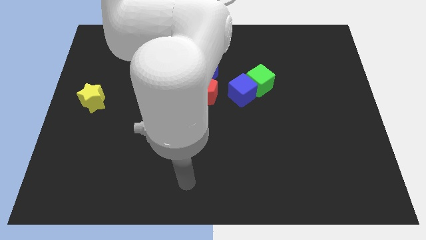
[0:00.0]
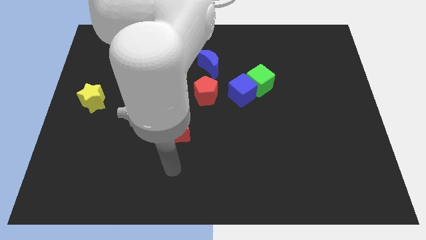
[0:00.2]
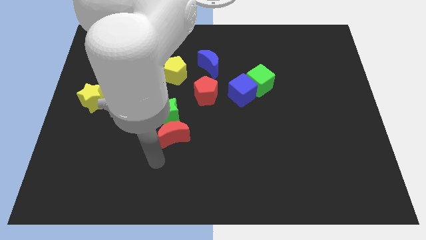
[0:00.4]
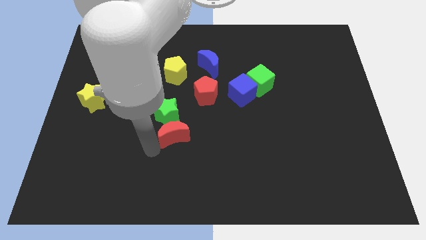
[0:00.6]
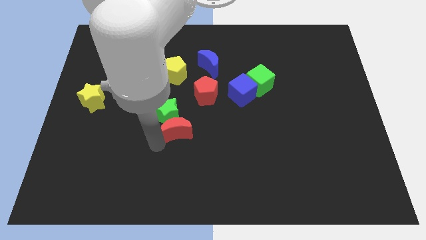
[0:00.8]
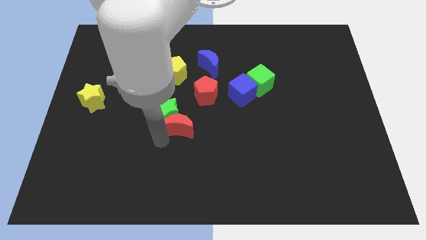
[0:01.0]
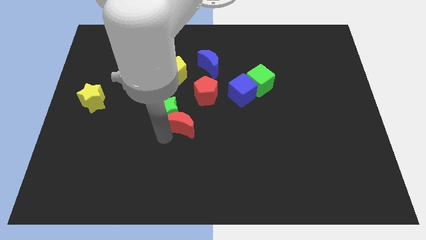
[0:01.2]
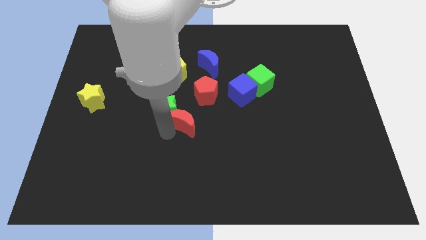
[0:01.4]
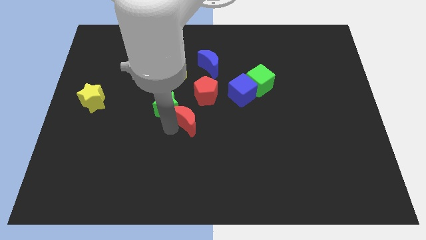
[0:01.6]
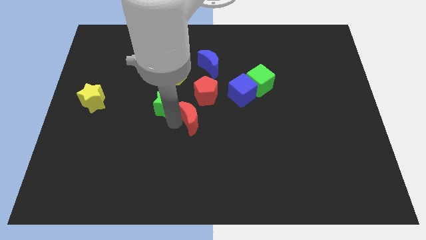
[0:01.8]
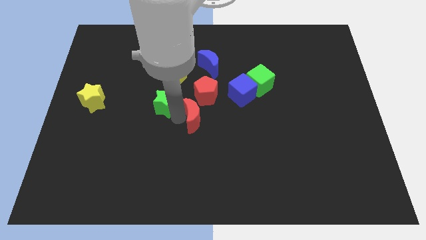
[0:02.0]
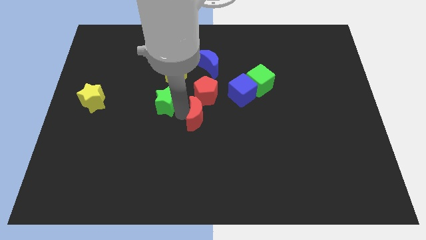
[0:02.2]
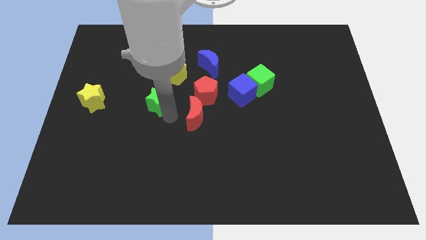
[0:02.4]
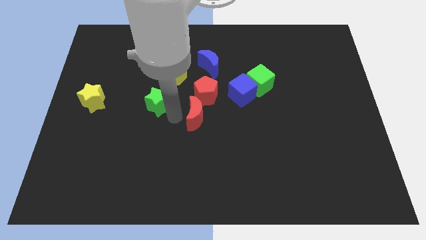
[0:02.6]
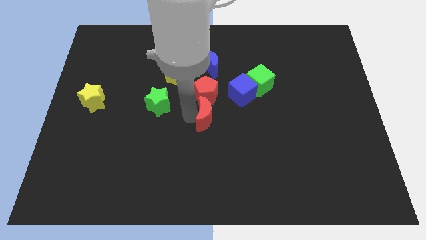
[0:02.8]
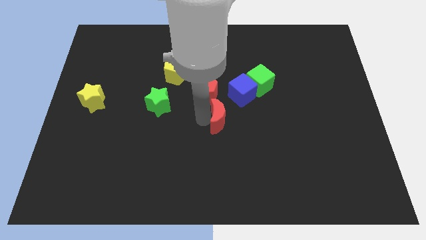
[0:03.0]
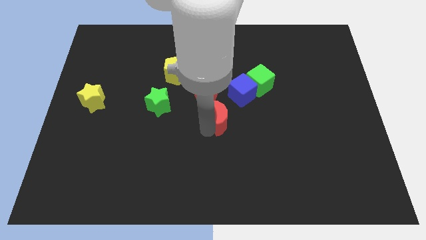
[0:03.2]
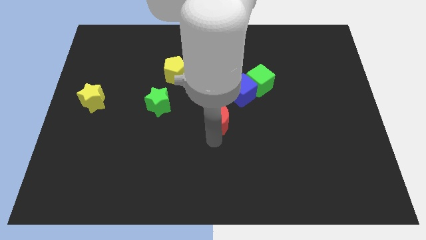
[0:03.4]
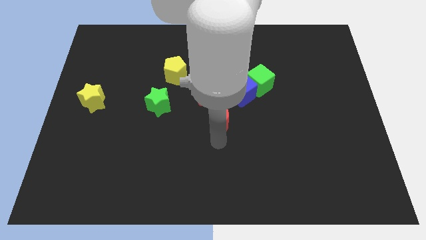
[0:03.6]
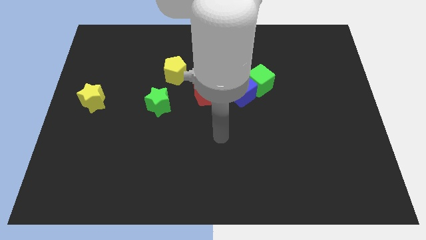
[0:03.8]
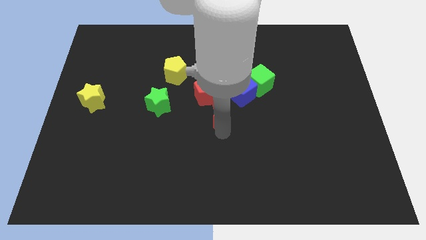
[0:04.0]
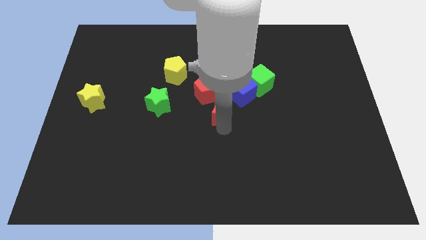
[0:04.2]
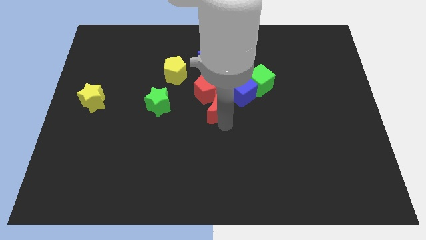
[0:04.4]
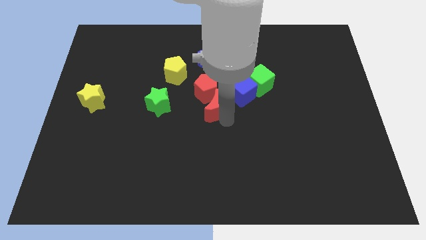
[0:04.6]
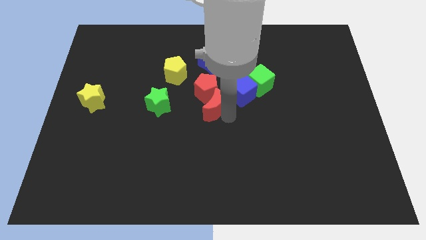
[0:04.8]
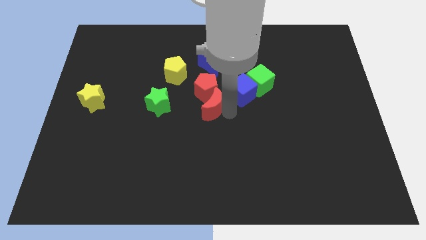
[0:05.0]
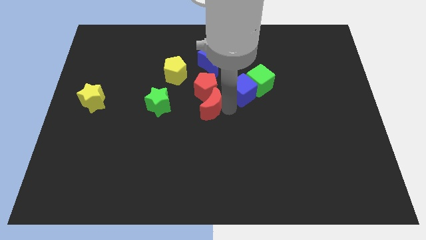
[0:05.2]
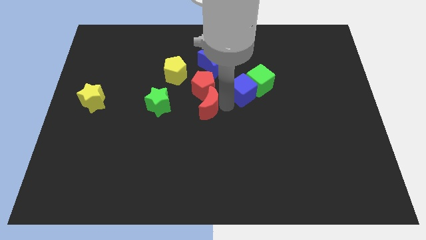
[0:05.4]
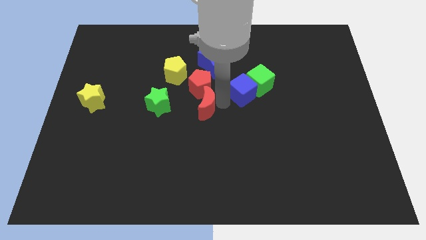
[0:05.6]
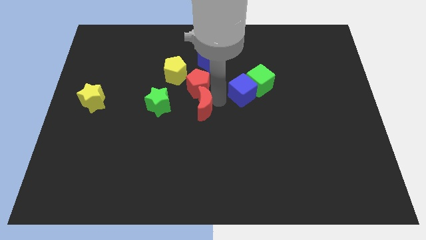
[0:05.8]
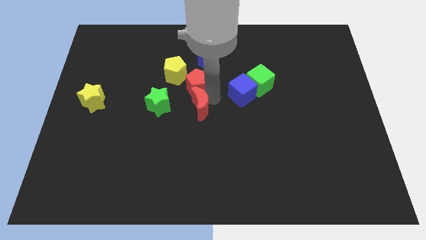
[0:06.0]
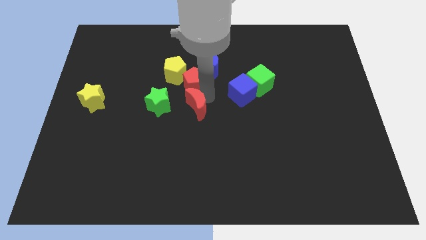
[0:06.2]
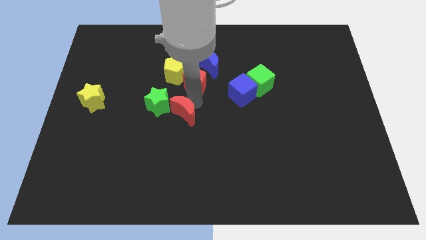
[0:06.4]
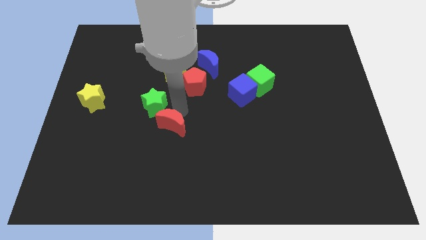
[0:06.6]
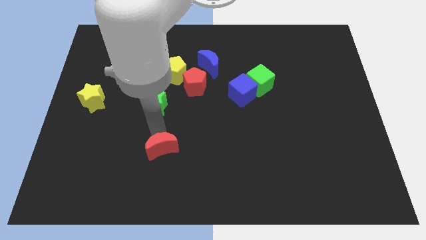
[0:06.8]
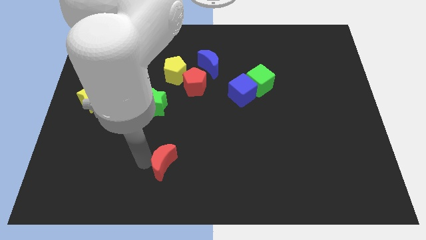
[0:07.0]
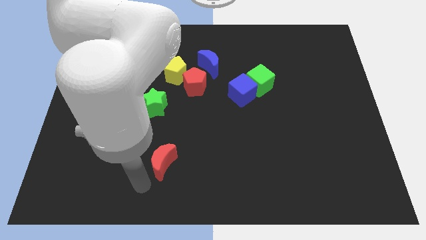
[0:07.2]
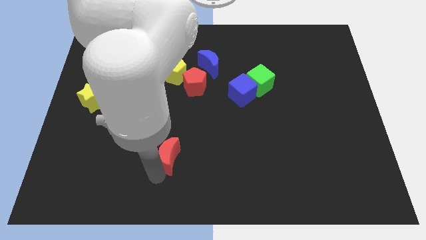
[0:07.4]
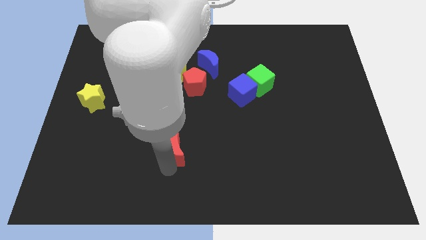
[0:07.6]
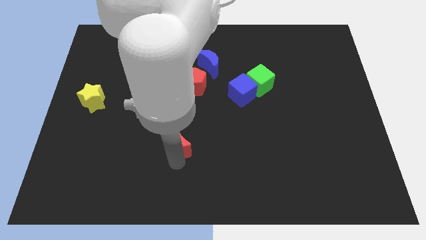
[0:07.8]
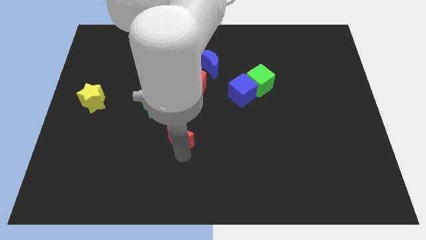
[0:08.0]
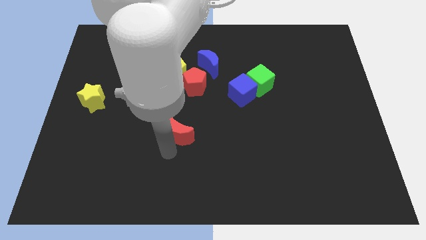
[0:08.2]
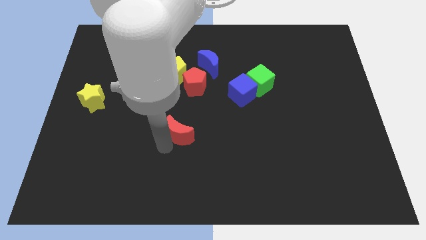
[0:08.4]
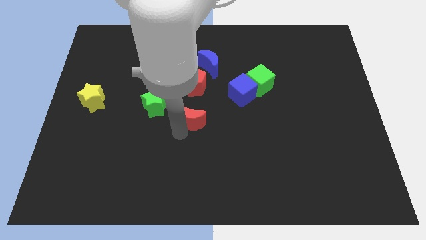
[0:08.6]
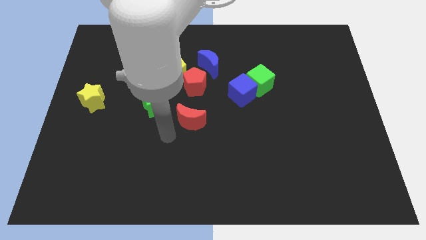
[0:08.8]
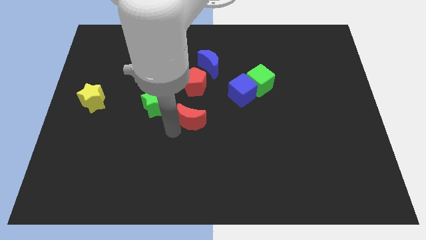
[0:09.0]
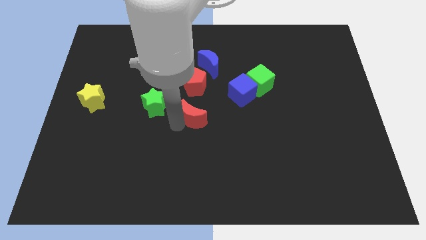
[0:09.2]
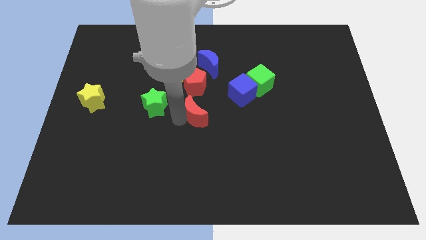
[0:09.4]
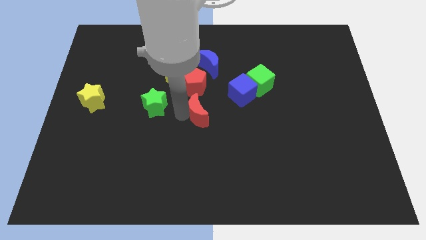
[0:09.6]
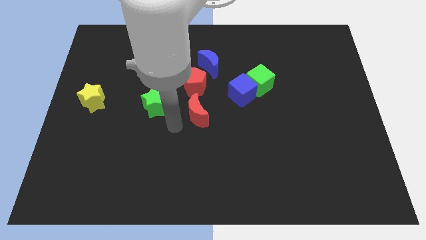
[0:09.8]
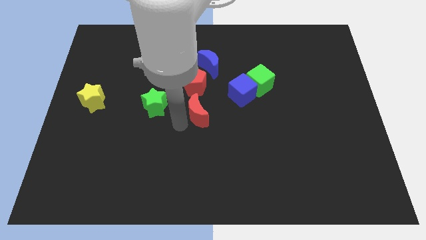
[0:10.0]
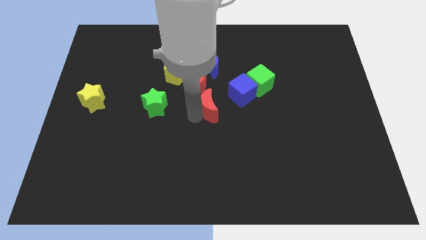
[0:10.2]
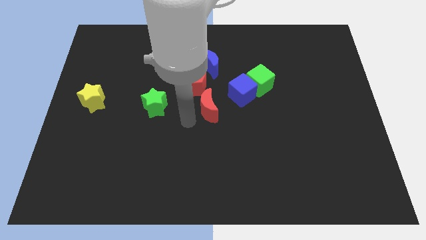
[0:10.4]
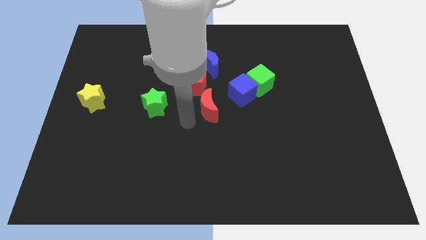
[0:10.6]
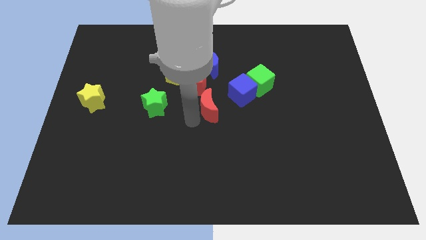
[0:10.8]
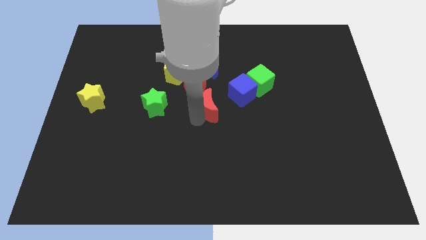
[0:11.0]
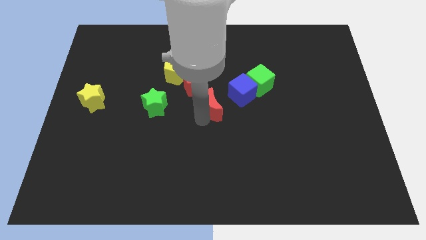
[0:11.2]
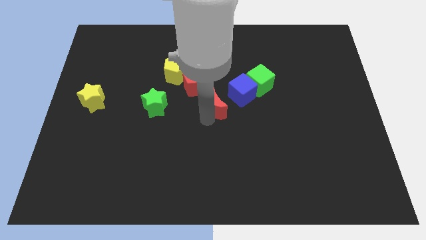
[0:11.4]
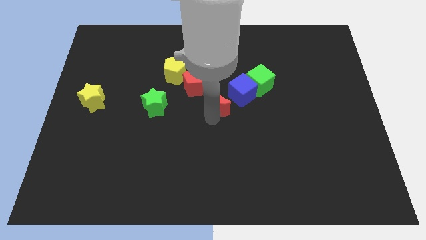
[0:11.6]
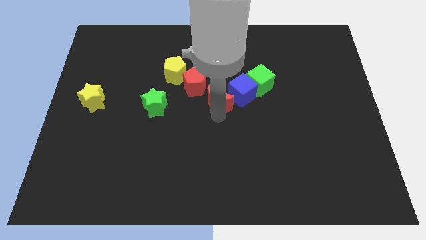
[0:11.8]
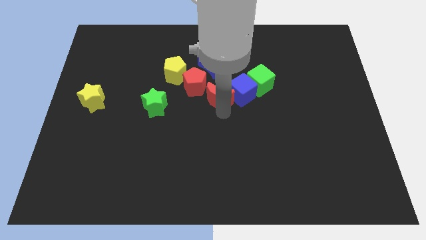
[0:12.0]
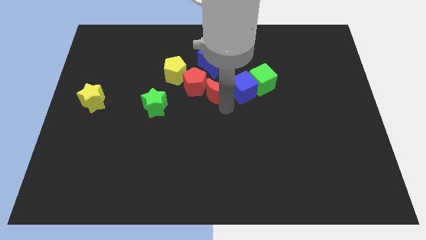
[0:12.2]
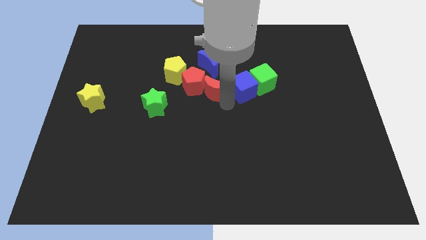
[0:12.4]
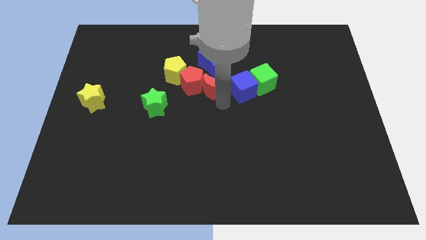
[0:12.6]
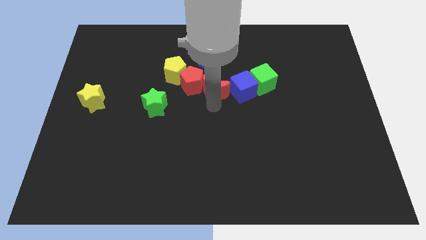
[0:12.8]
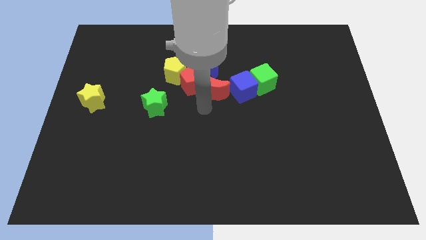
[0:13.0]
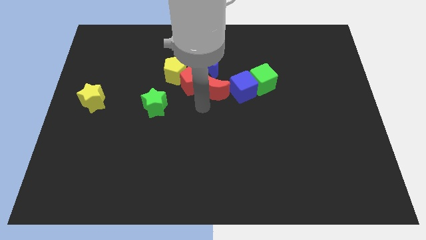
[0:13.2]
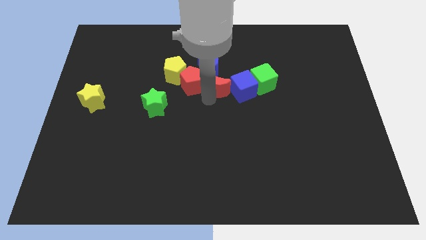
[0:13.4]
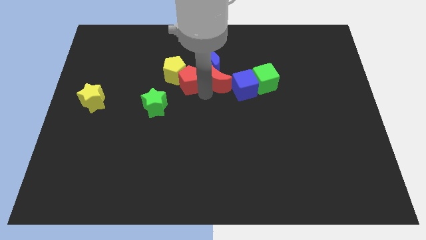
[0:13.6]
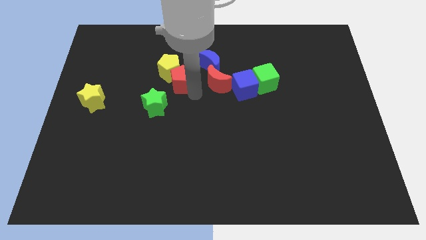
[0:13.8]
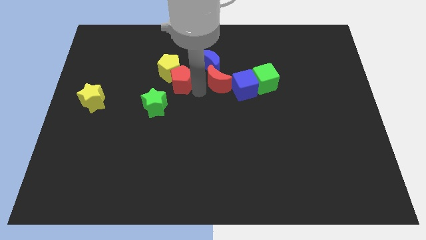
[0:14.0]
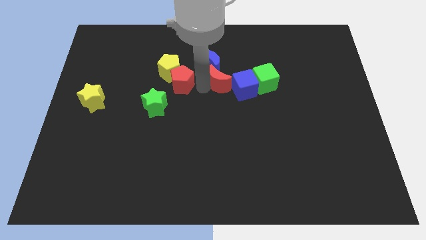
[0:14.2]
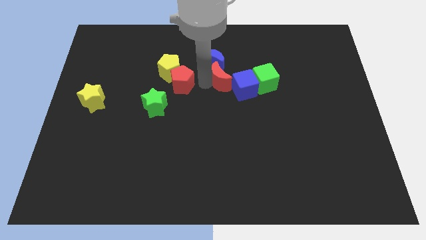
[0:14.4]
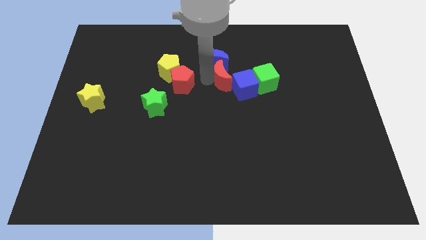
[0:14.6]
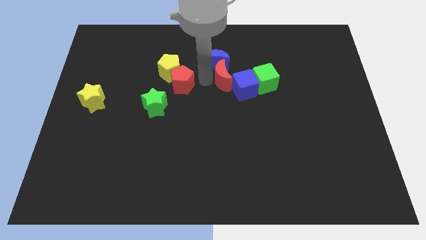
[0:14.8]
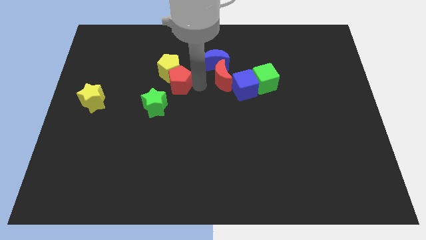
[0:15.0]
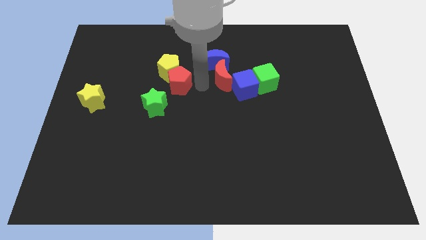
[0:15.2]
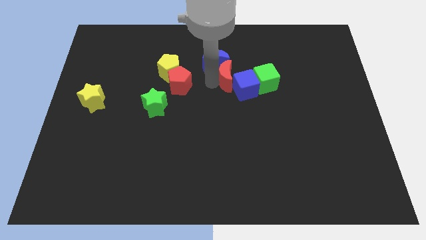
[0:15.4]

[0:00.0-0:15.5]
move the red moon diagonally up and right

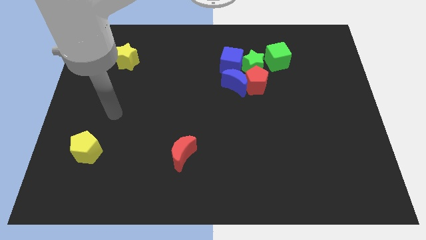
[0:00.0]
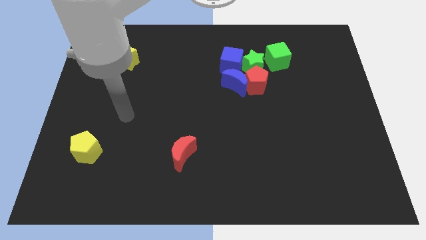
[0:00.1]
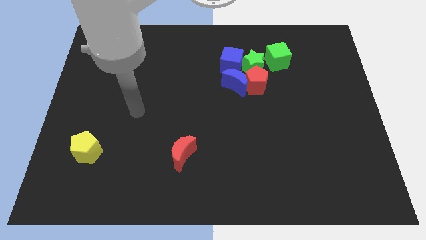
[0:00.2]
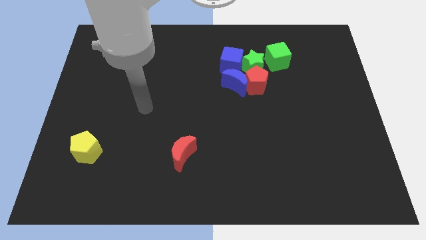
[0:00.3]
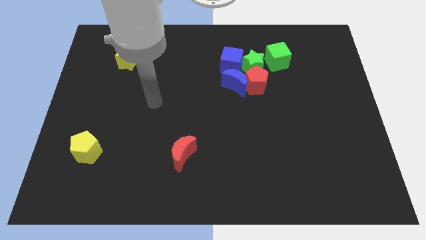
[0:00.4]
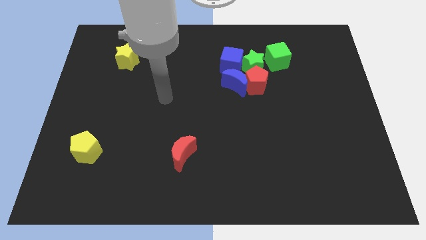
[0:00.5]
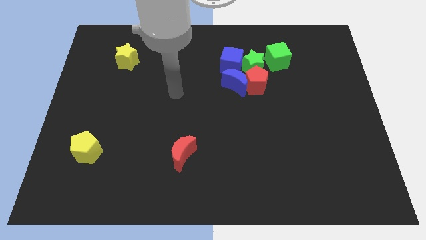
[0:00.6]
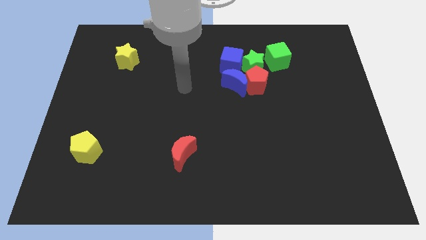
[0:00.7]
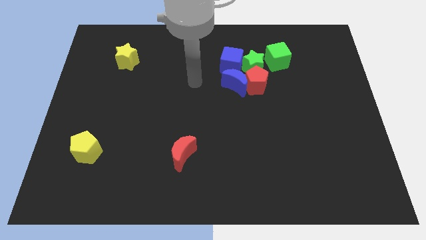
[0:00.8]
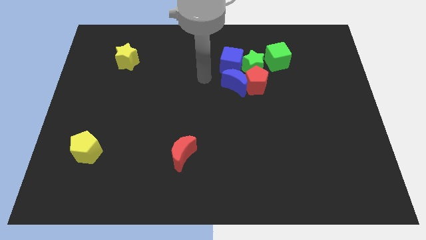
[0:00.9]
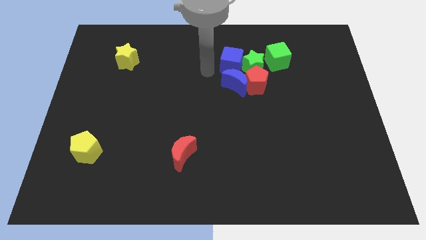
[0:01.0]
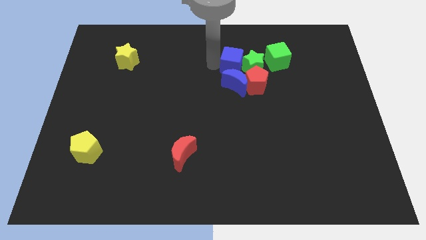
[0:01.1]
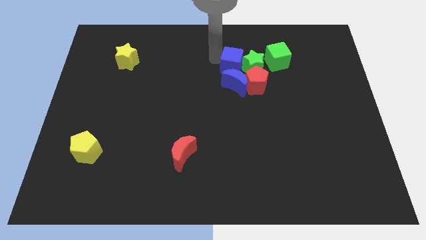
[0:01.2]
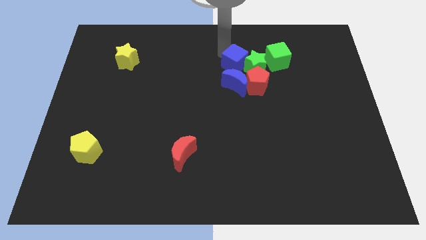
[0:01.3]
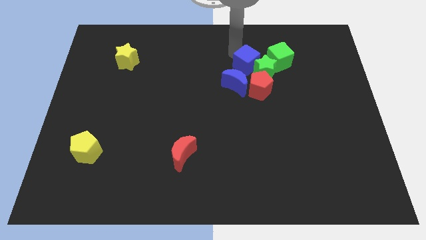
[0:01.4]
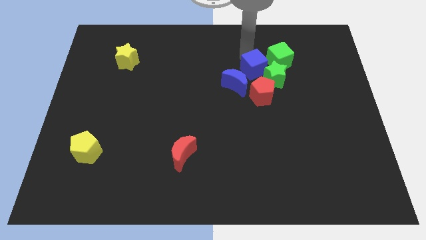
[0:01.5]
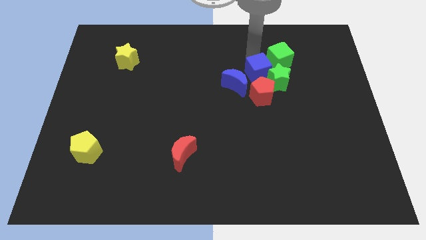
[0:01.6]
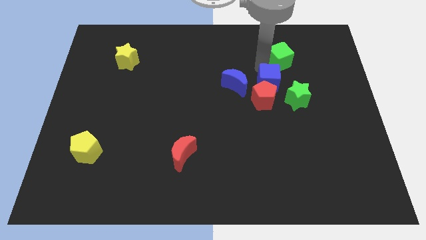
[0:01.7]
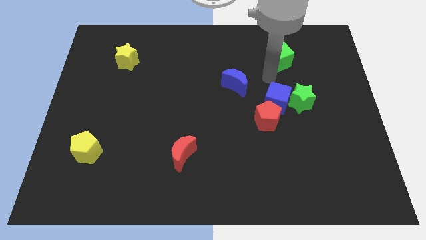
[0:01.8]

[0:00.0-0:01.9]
push the red pentagon somewhat downwards
